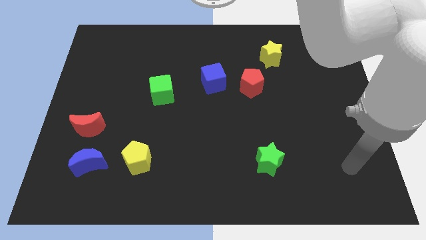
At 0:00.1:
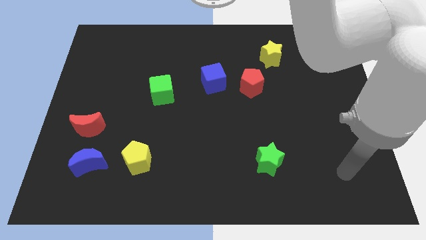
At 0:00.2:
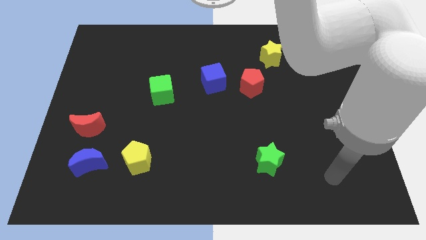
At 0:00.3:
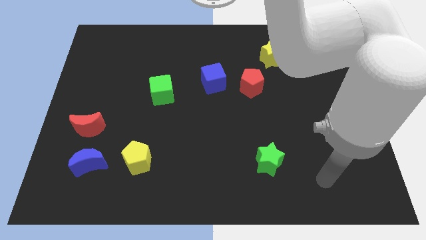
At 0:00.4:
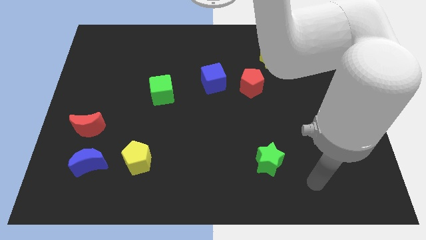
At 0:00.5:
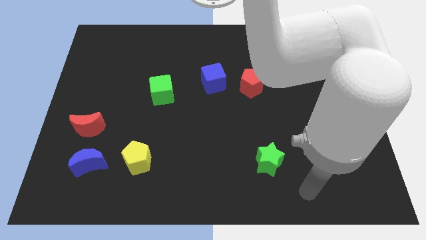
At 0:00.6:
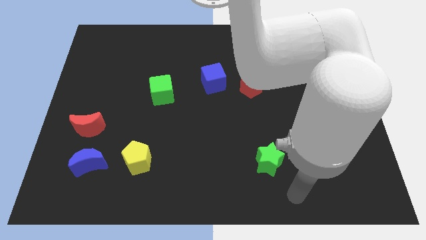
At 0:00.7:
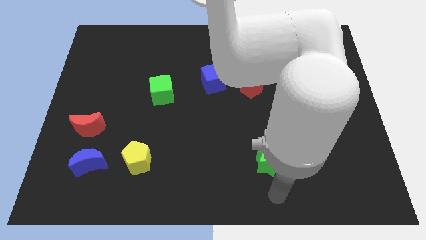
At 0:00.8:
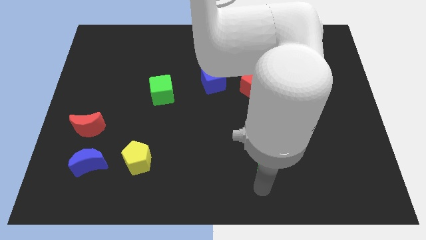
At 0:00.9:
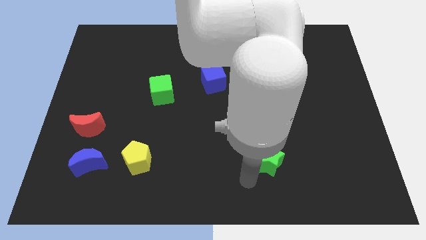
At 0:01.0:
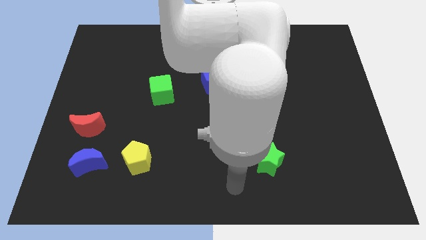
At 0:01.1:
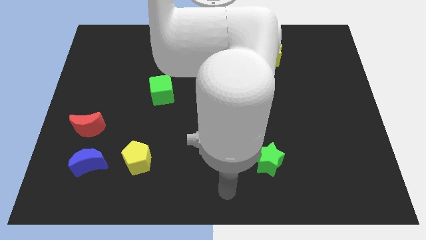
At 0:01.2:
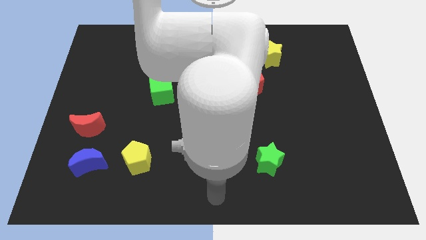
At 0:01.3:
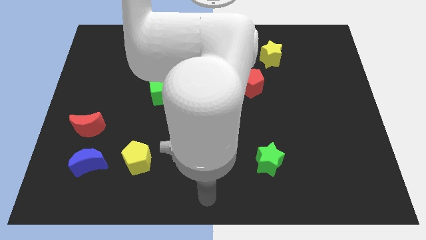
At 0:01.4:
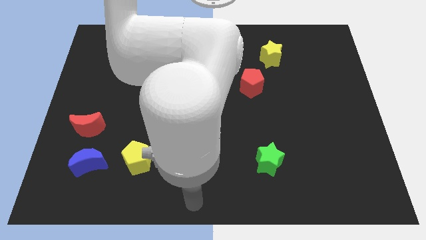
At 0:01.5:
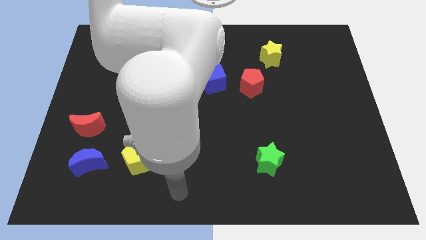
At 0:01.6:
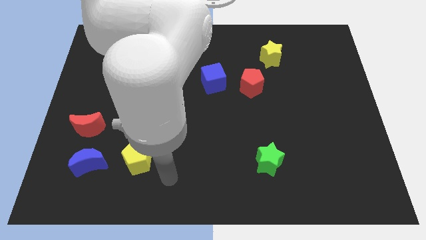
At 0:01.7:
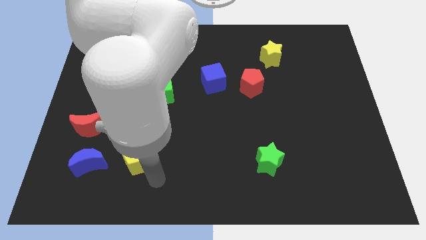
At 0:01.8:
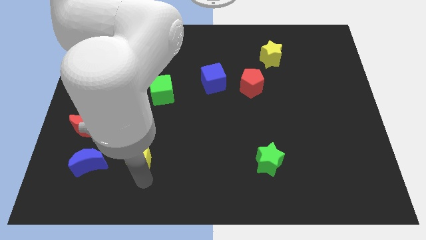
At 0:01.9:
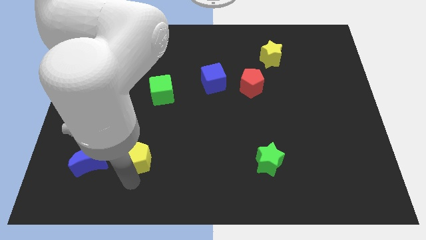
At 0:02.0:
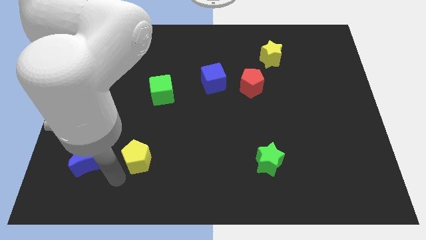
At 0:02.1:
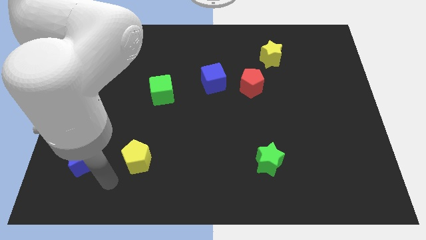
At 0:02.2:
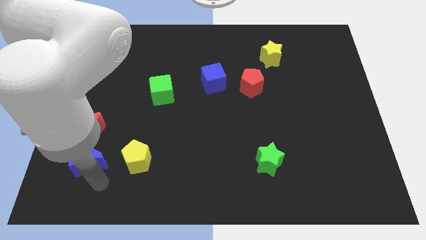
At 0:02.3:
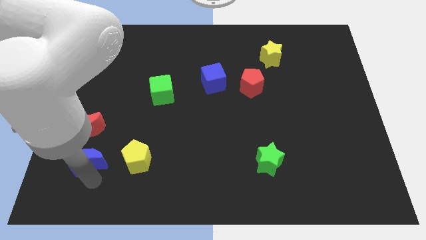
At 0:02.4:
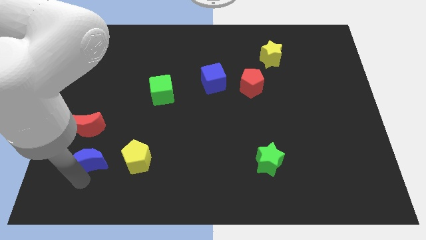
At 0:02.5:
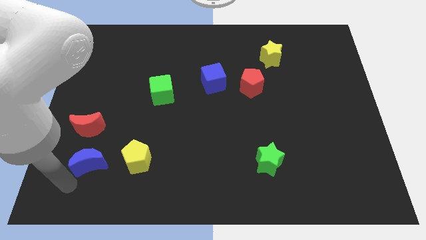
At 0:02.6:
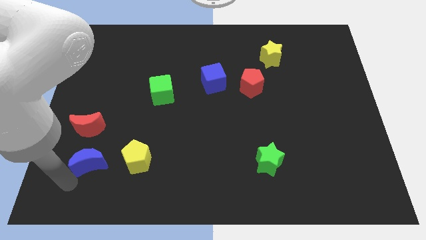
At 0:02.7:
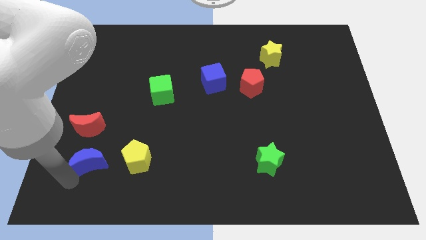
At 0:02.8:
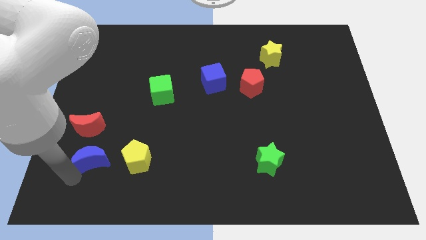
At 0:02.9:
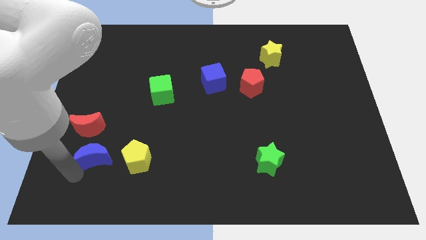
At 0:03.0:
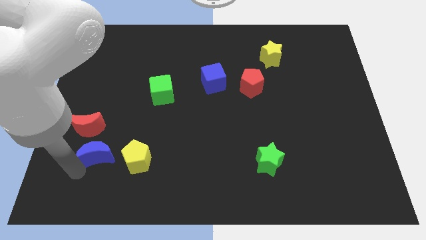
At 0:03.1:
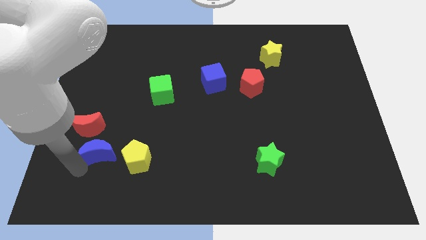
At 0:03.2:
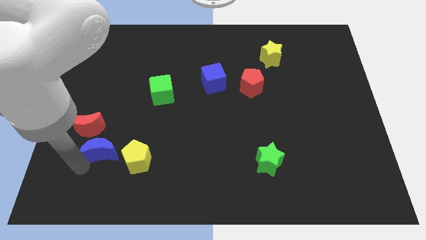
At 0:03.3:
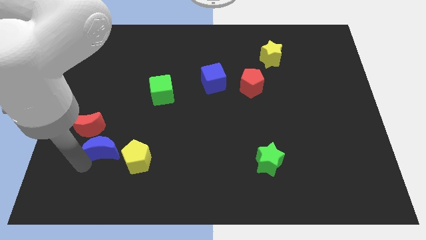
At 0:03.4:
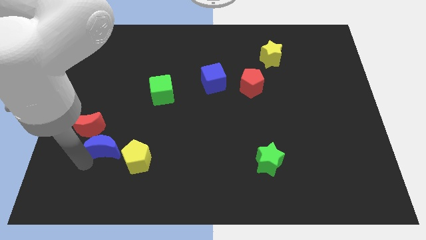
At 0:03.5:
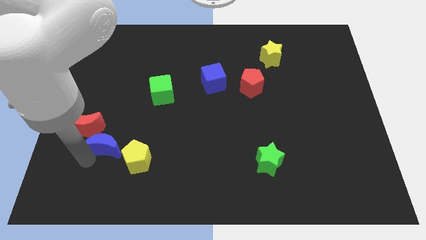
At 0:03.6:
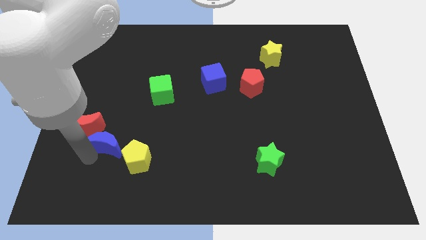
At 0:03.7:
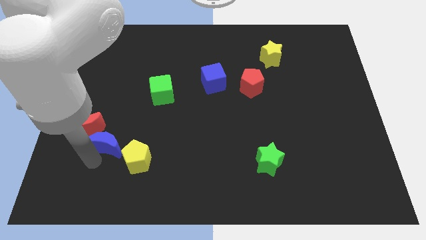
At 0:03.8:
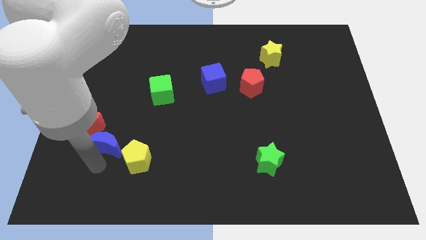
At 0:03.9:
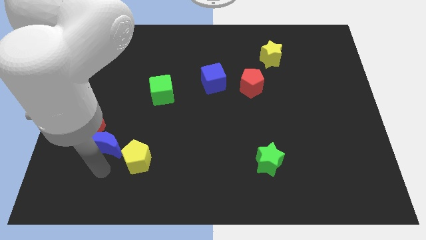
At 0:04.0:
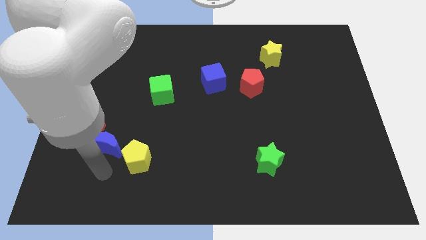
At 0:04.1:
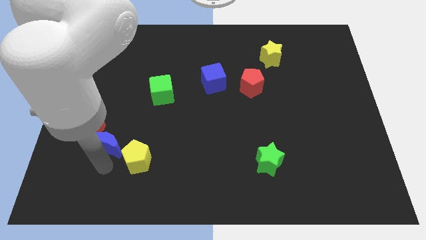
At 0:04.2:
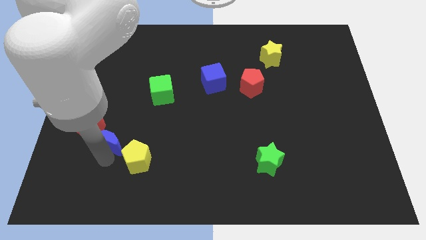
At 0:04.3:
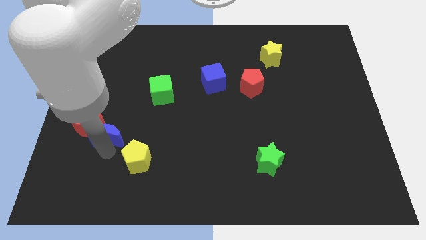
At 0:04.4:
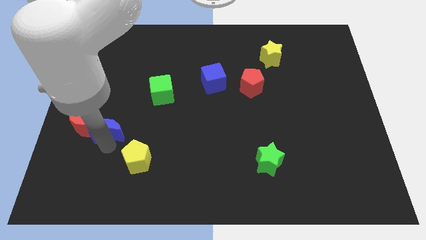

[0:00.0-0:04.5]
slightly move the blue moon up

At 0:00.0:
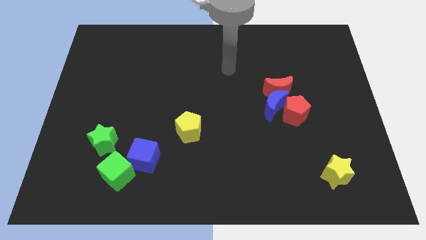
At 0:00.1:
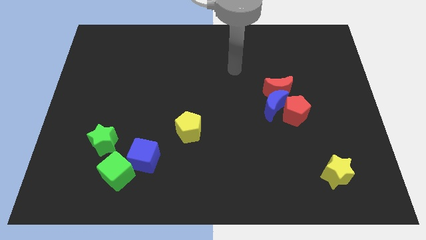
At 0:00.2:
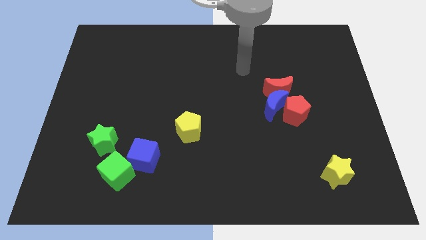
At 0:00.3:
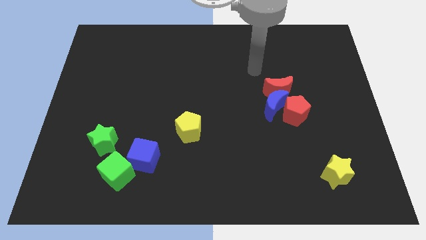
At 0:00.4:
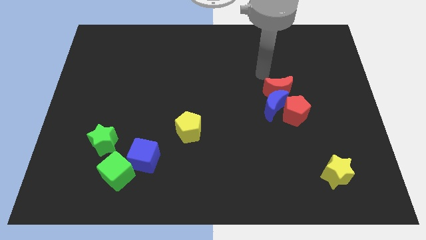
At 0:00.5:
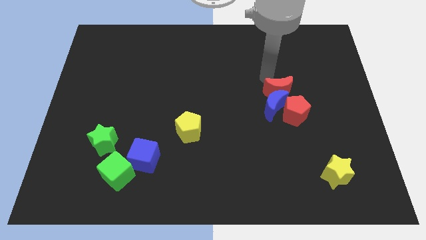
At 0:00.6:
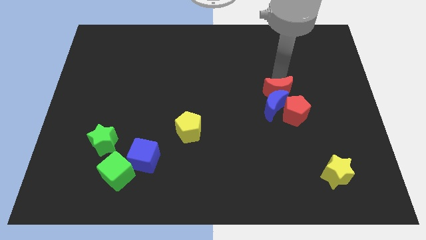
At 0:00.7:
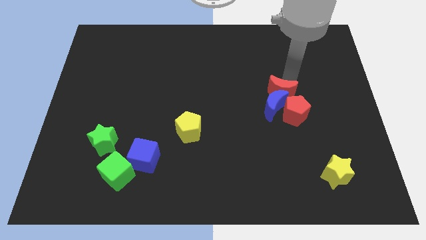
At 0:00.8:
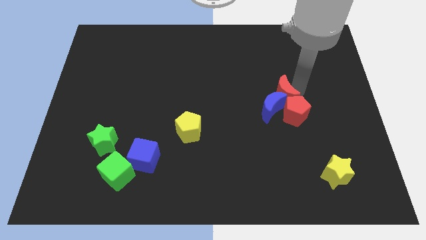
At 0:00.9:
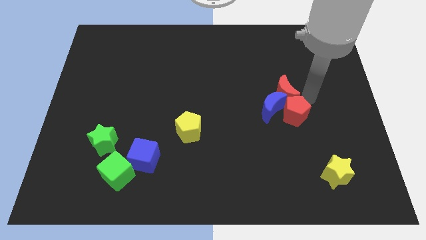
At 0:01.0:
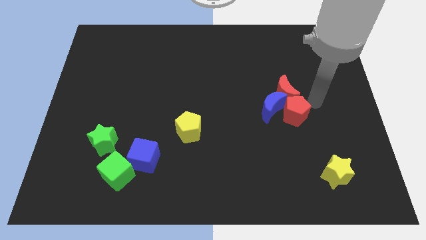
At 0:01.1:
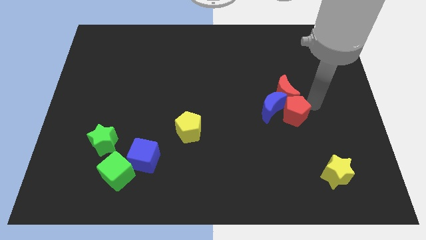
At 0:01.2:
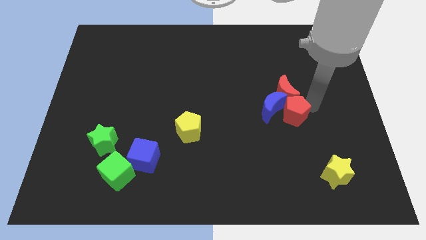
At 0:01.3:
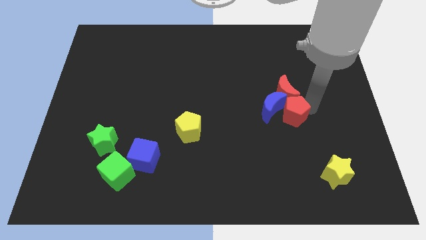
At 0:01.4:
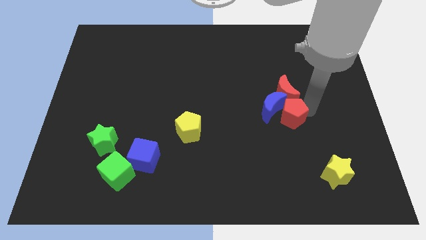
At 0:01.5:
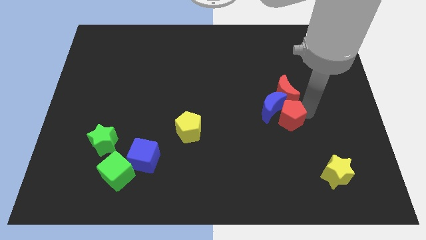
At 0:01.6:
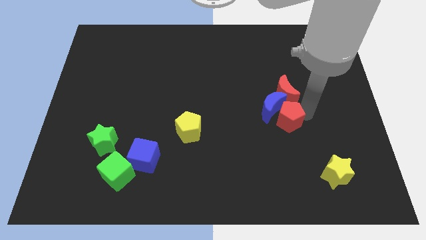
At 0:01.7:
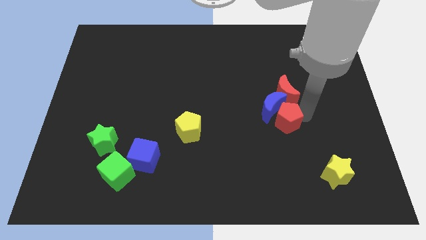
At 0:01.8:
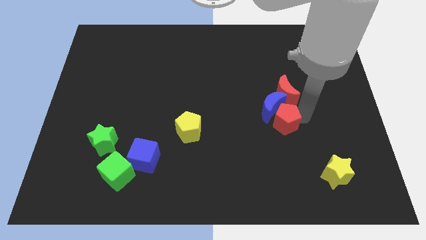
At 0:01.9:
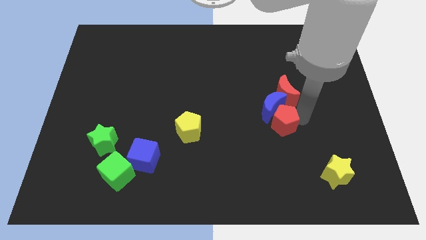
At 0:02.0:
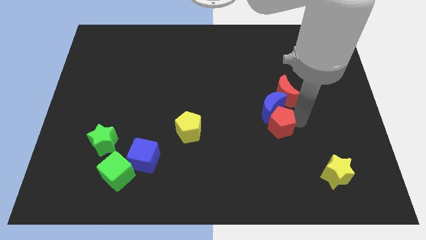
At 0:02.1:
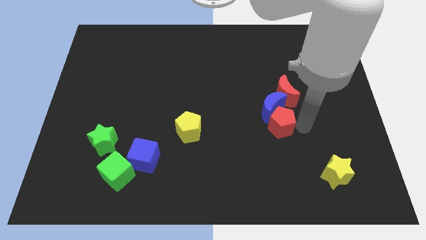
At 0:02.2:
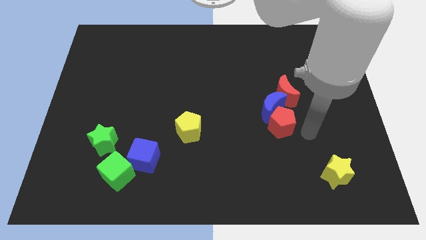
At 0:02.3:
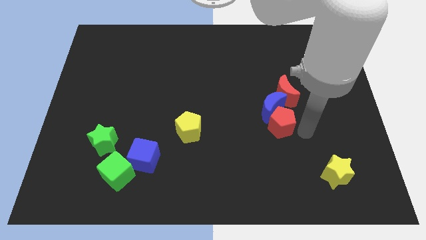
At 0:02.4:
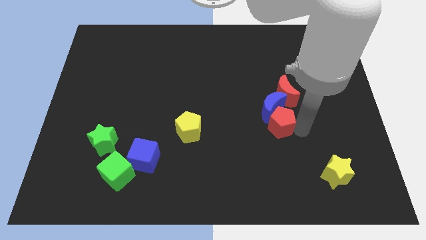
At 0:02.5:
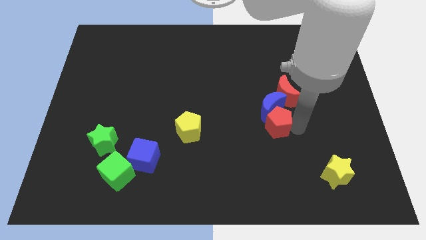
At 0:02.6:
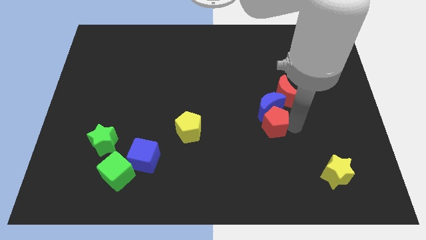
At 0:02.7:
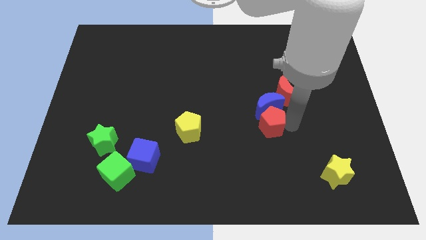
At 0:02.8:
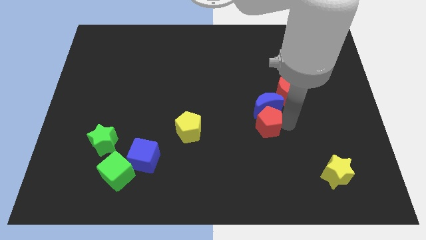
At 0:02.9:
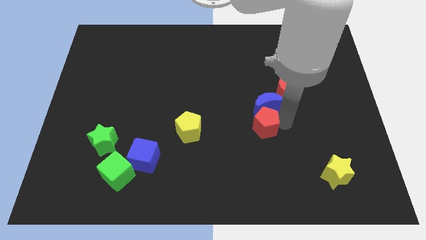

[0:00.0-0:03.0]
push the red pentagon to the left a bit

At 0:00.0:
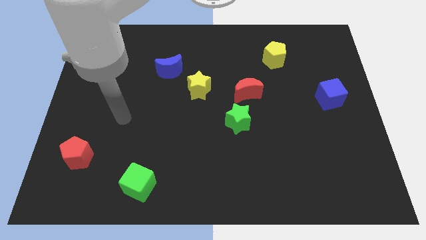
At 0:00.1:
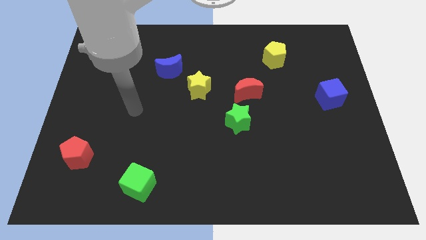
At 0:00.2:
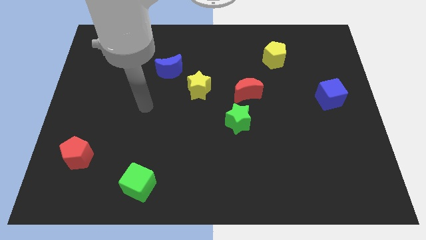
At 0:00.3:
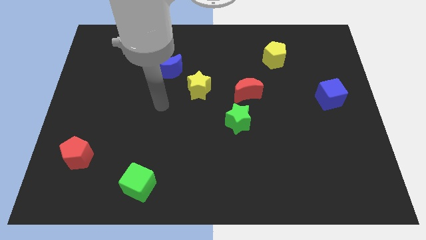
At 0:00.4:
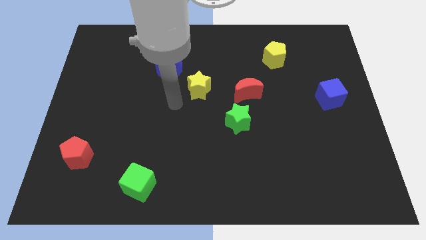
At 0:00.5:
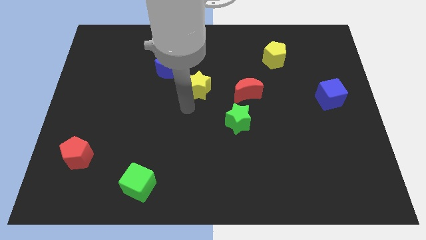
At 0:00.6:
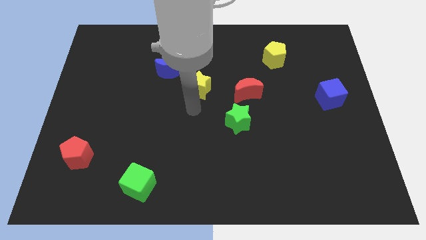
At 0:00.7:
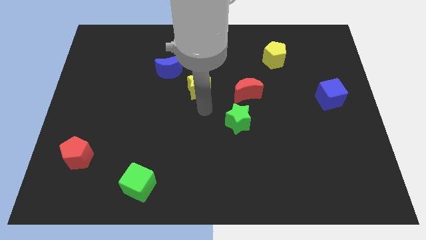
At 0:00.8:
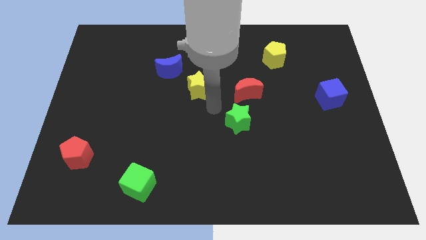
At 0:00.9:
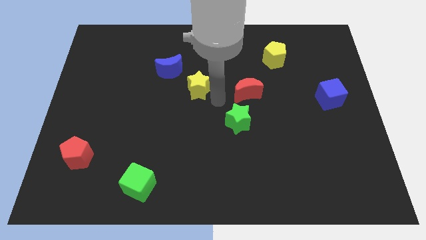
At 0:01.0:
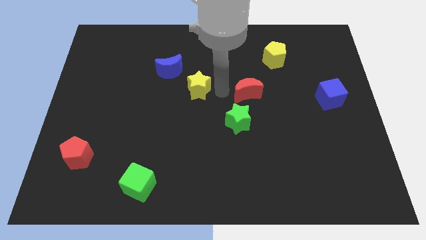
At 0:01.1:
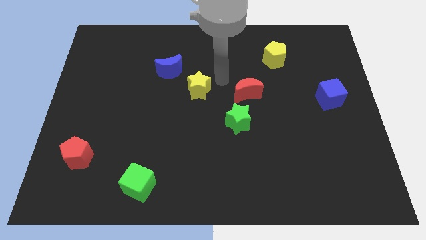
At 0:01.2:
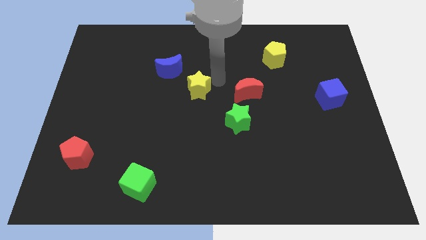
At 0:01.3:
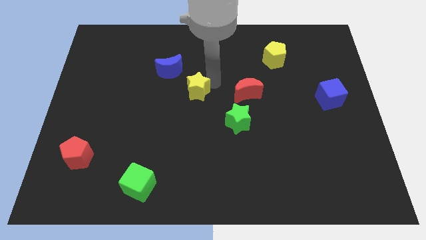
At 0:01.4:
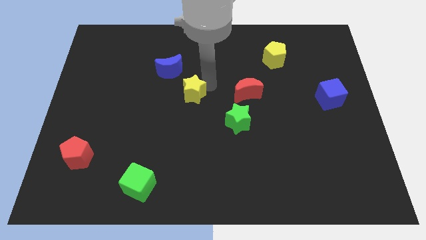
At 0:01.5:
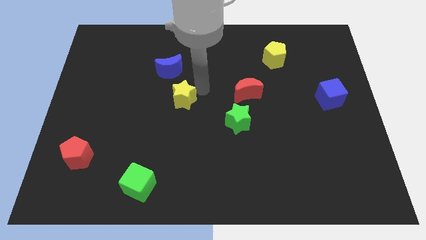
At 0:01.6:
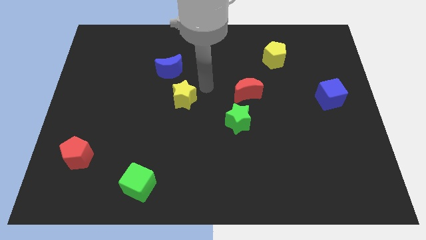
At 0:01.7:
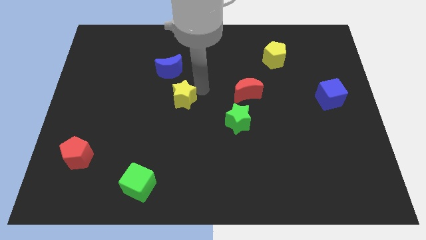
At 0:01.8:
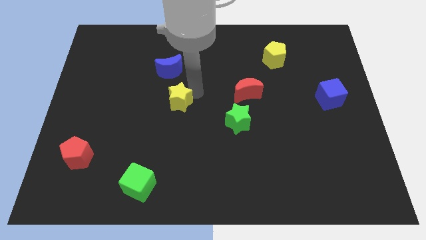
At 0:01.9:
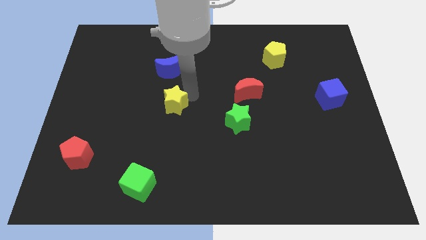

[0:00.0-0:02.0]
push the yellow star diagonally downwards and to the left a bit
